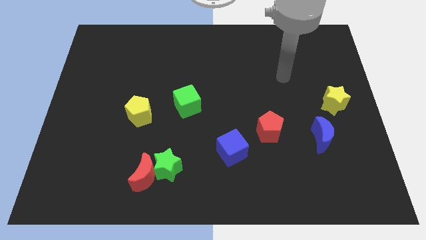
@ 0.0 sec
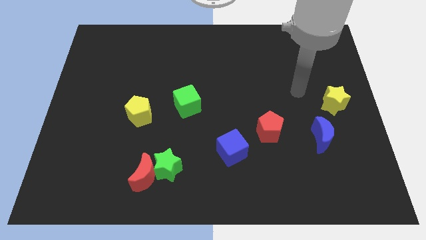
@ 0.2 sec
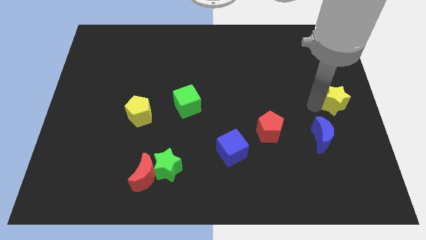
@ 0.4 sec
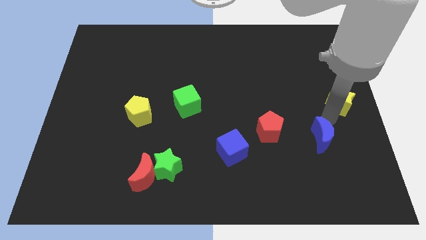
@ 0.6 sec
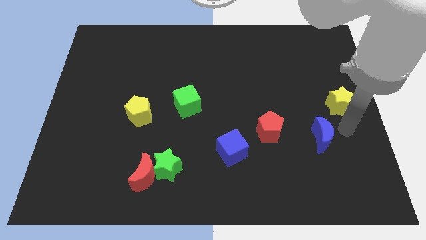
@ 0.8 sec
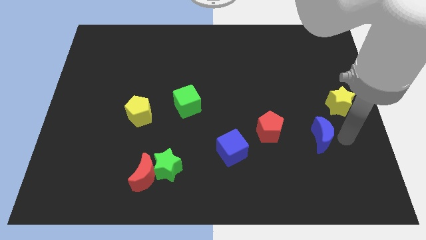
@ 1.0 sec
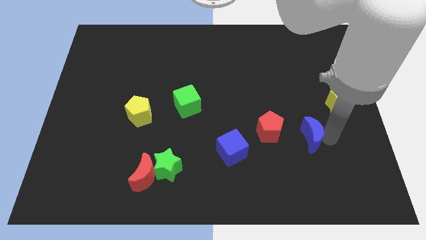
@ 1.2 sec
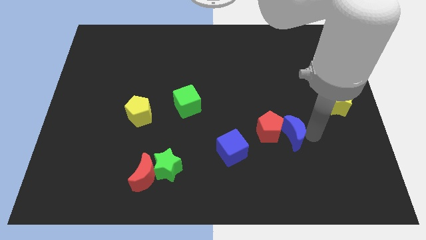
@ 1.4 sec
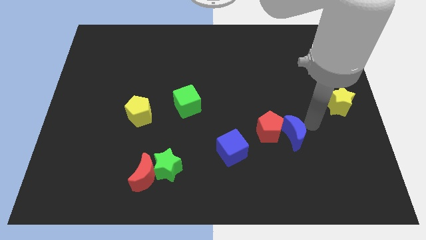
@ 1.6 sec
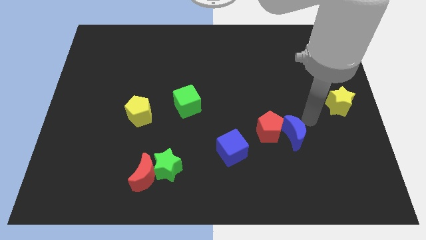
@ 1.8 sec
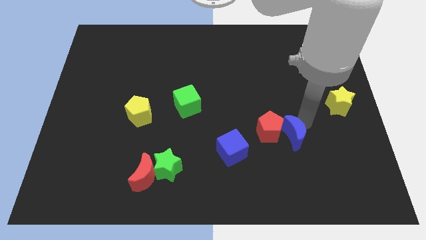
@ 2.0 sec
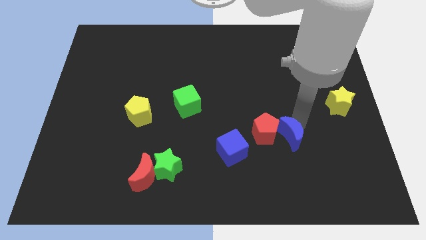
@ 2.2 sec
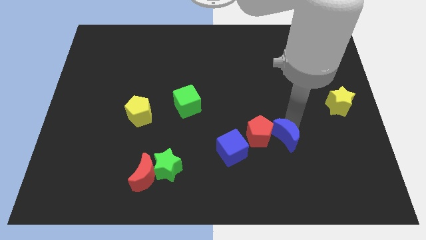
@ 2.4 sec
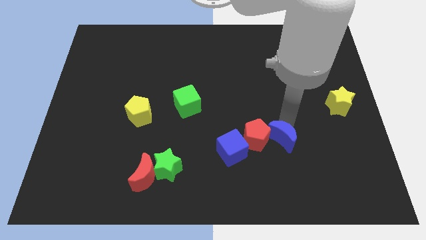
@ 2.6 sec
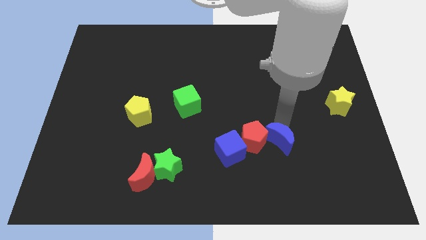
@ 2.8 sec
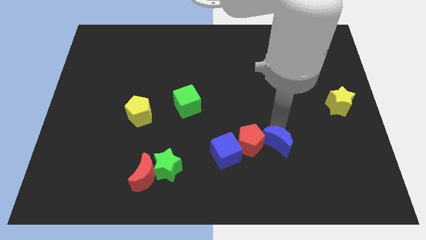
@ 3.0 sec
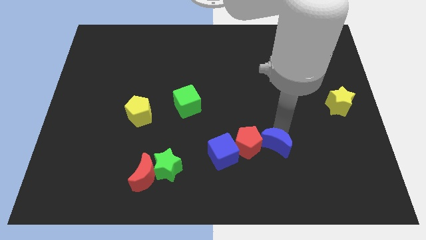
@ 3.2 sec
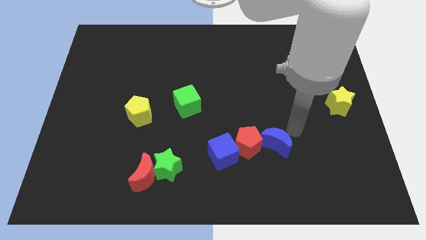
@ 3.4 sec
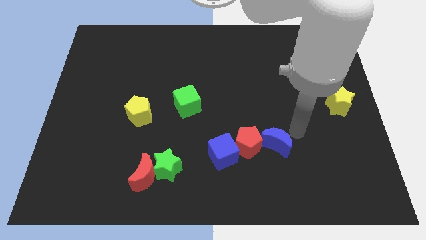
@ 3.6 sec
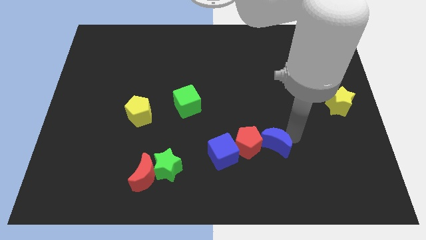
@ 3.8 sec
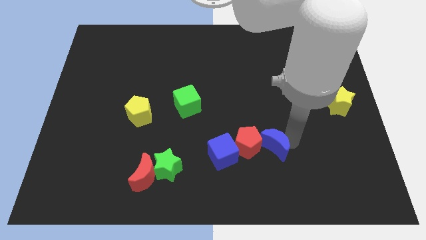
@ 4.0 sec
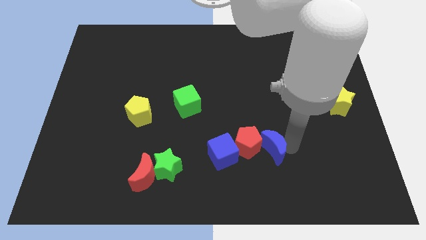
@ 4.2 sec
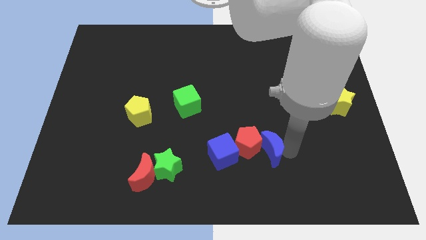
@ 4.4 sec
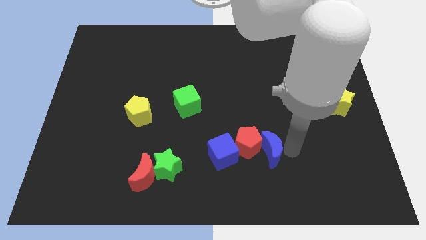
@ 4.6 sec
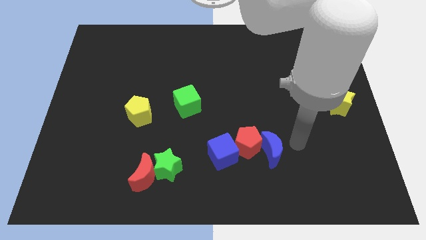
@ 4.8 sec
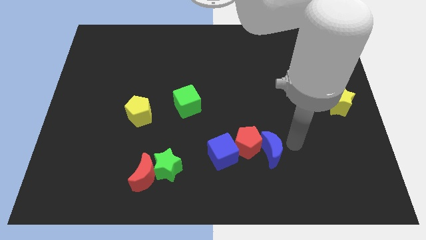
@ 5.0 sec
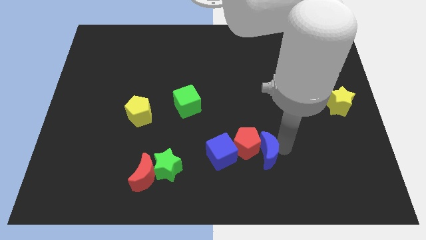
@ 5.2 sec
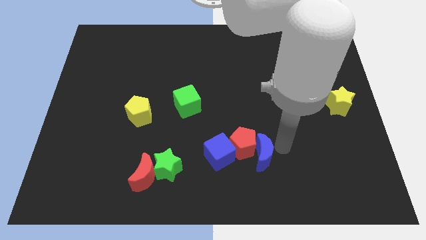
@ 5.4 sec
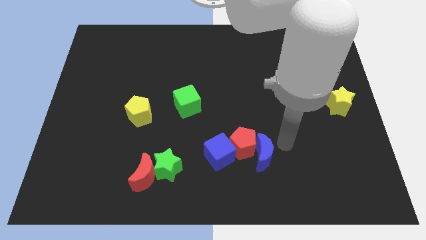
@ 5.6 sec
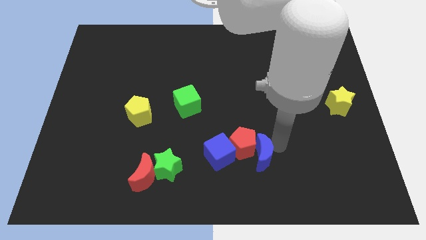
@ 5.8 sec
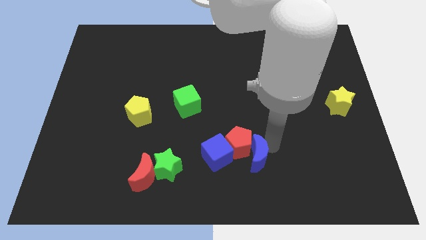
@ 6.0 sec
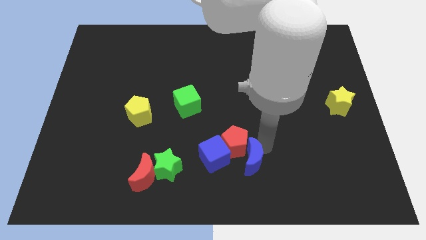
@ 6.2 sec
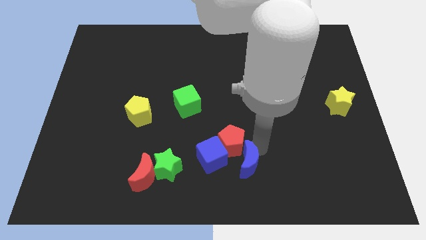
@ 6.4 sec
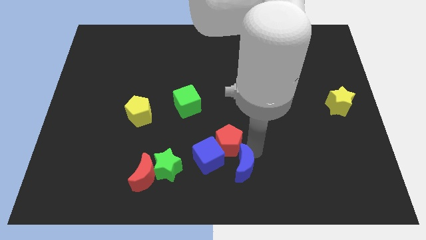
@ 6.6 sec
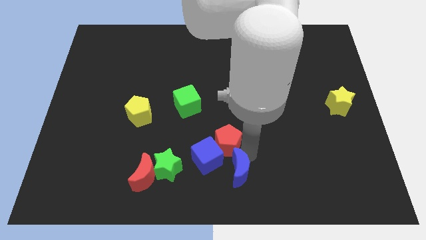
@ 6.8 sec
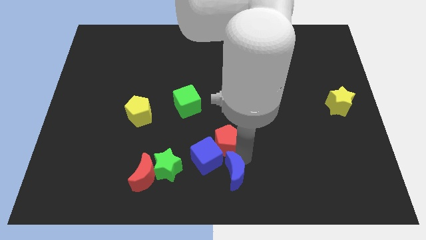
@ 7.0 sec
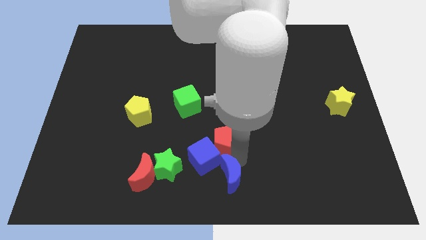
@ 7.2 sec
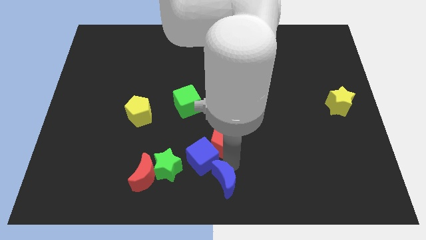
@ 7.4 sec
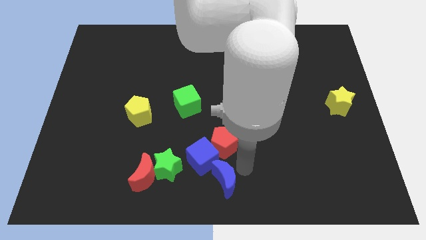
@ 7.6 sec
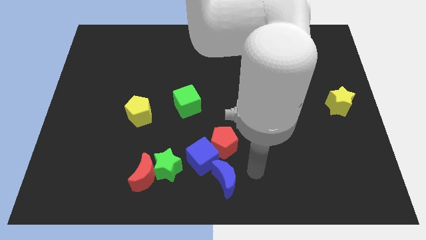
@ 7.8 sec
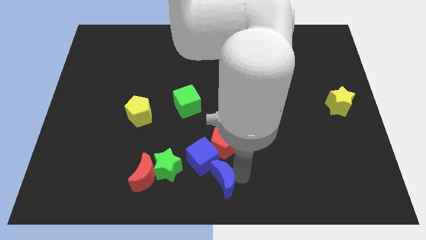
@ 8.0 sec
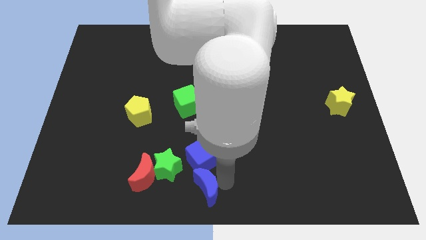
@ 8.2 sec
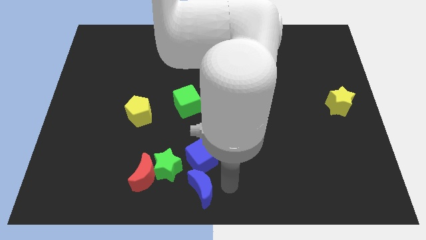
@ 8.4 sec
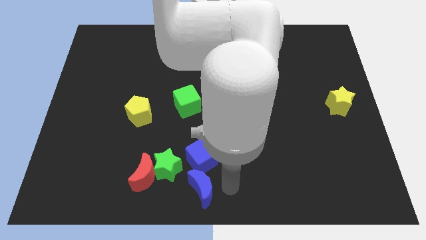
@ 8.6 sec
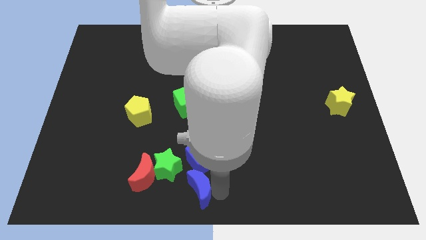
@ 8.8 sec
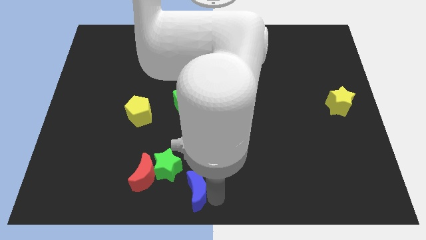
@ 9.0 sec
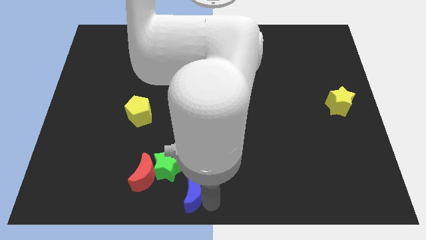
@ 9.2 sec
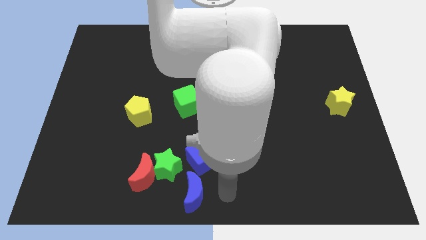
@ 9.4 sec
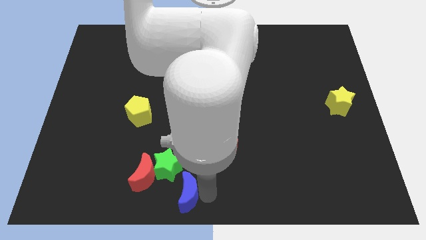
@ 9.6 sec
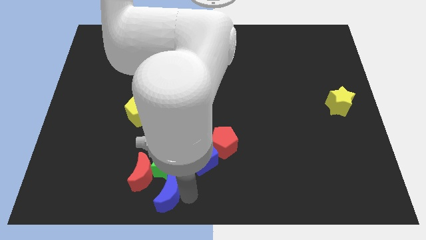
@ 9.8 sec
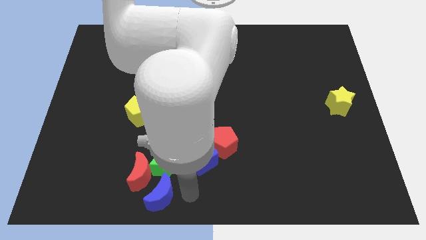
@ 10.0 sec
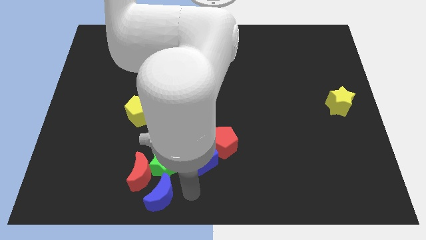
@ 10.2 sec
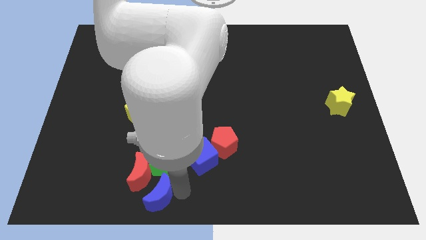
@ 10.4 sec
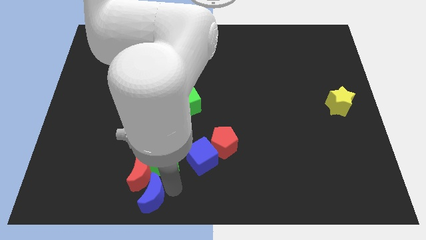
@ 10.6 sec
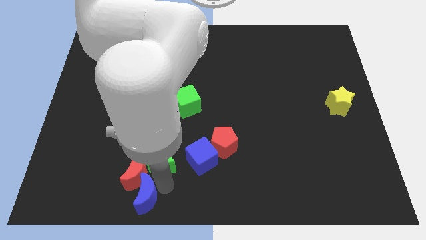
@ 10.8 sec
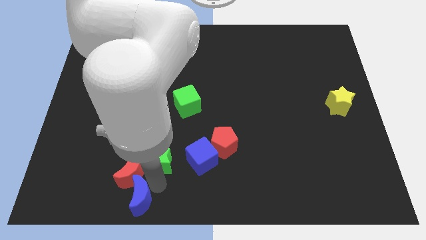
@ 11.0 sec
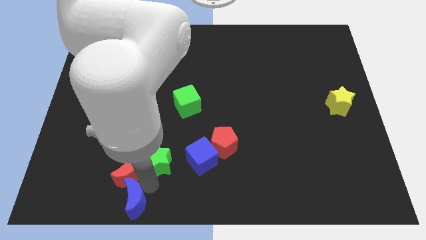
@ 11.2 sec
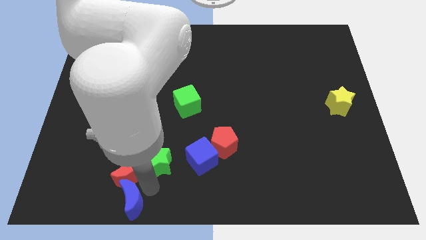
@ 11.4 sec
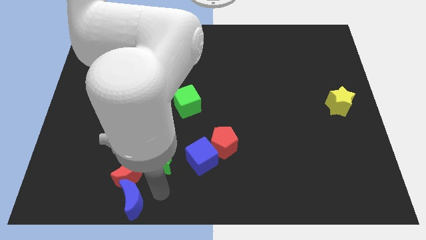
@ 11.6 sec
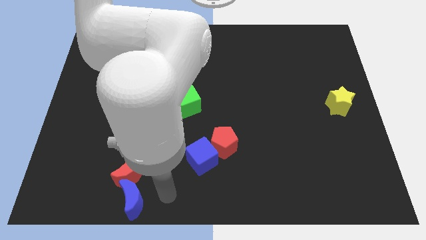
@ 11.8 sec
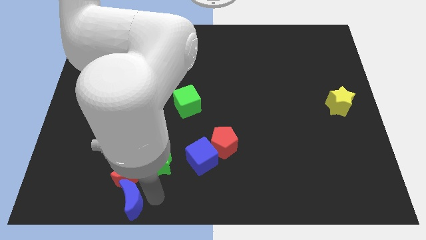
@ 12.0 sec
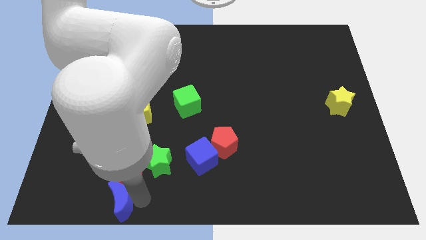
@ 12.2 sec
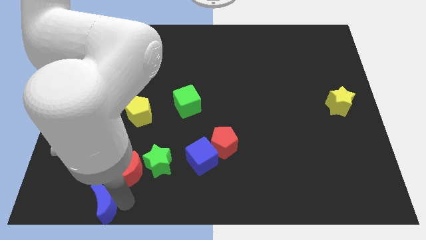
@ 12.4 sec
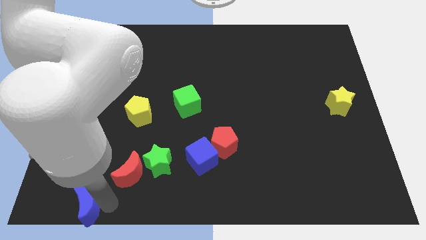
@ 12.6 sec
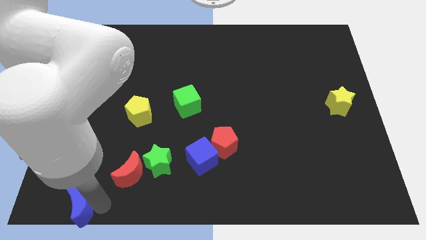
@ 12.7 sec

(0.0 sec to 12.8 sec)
put the blue moon to the lower left corner
